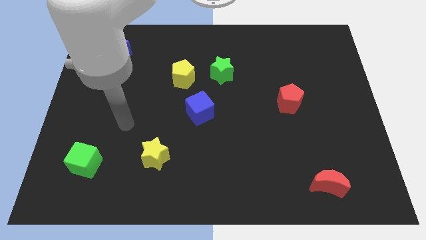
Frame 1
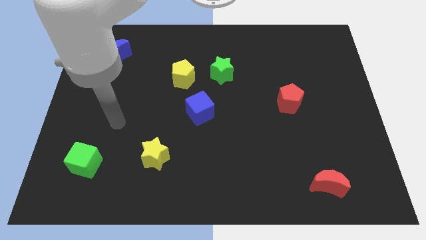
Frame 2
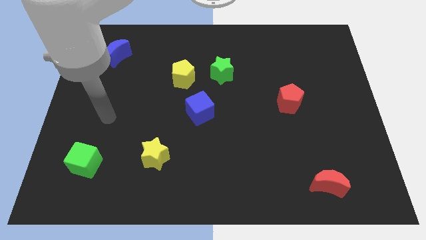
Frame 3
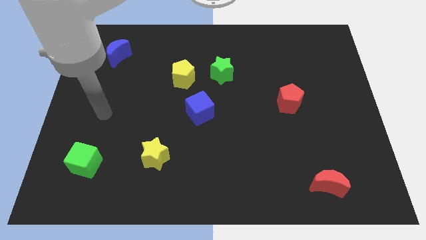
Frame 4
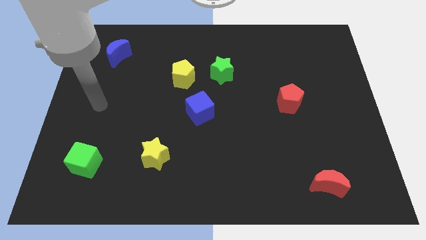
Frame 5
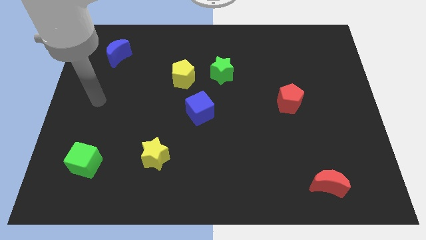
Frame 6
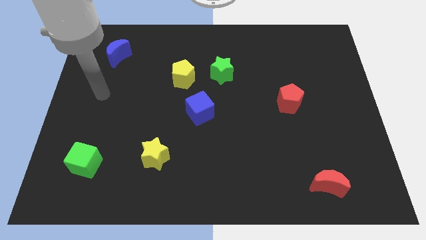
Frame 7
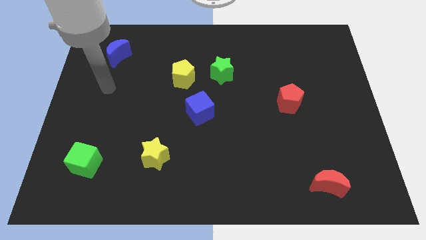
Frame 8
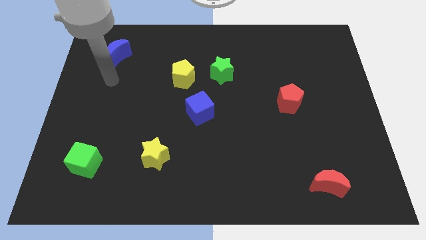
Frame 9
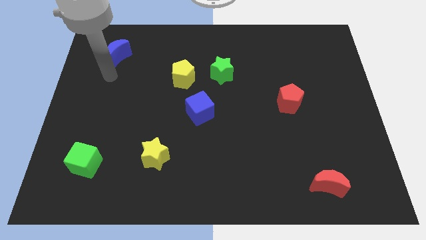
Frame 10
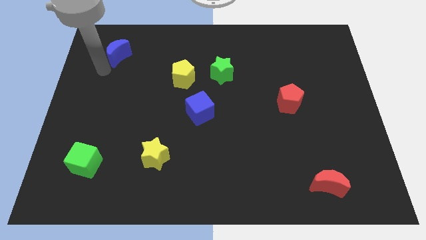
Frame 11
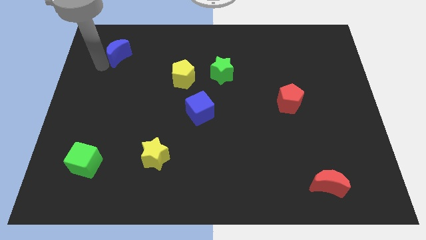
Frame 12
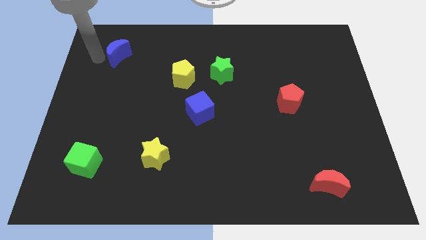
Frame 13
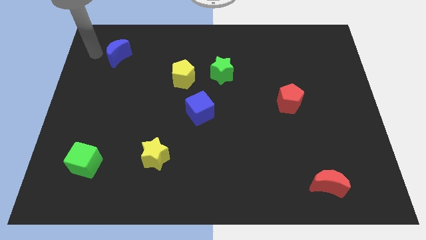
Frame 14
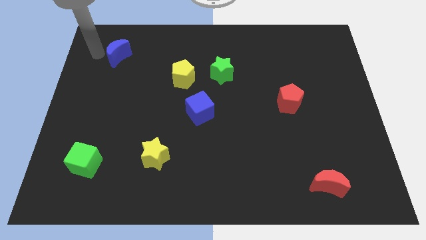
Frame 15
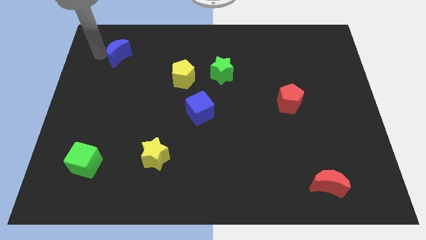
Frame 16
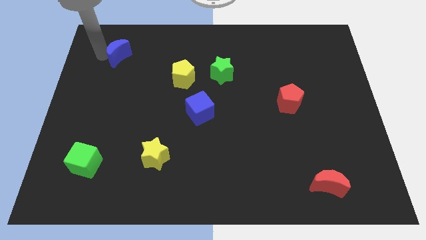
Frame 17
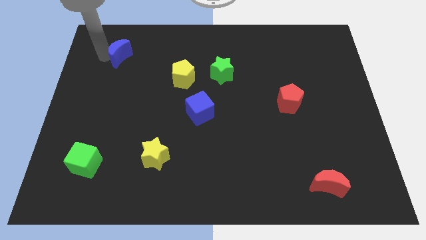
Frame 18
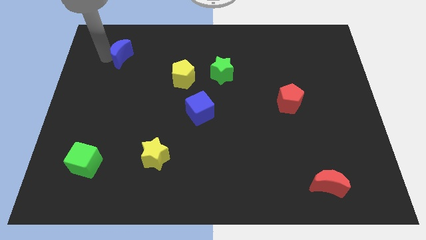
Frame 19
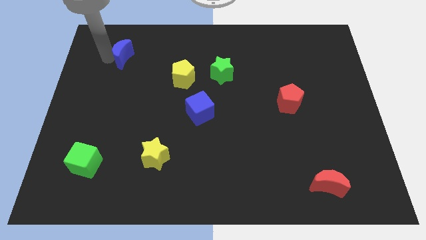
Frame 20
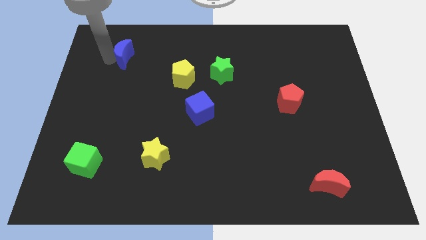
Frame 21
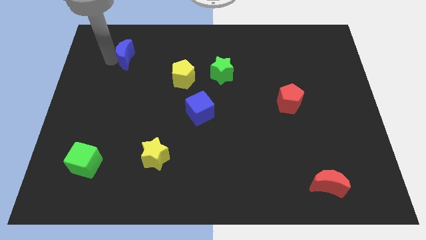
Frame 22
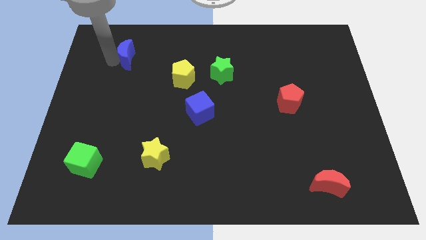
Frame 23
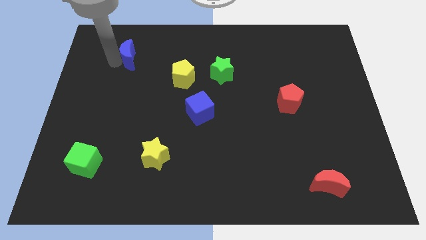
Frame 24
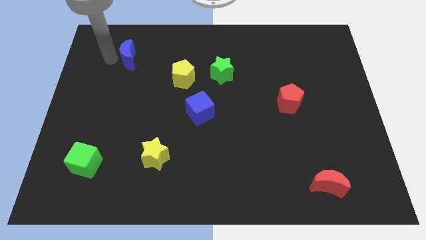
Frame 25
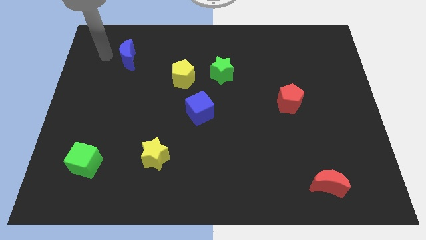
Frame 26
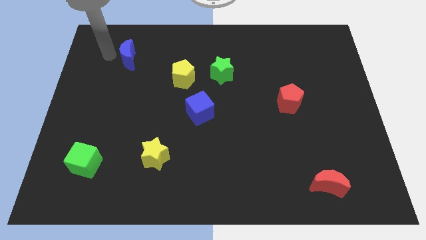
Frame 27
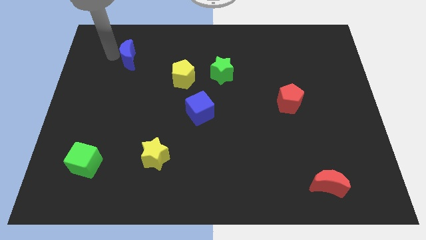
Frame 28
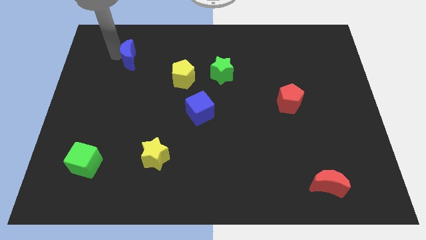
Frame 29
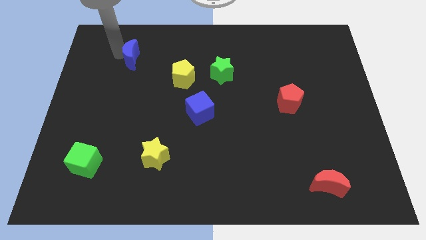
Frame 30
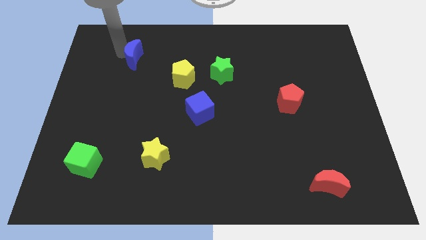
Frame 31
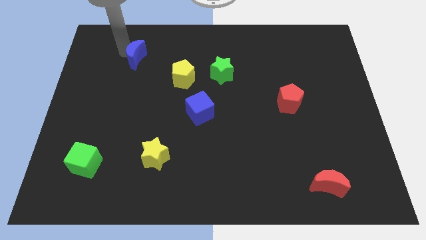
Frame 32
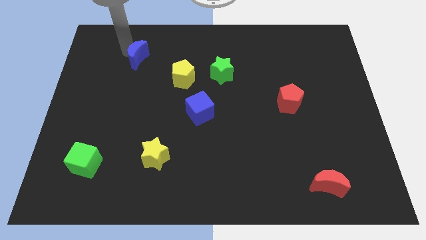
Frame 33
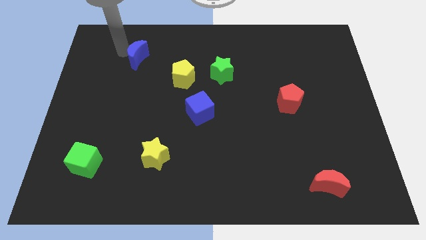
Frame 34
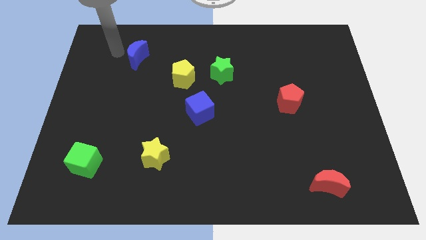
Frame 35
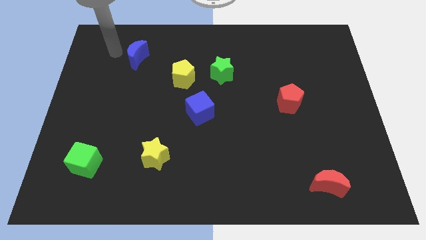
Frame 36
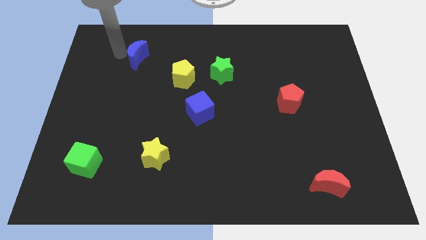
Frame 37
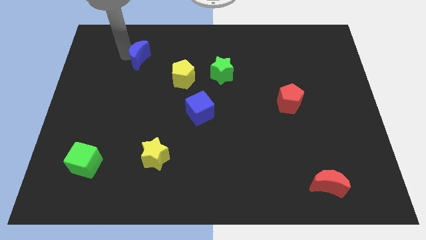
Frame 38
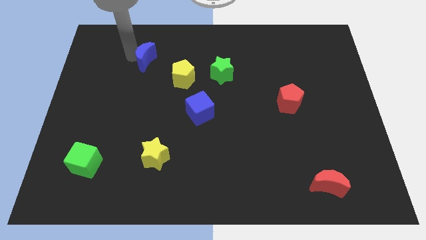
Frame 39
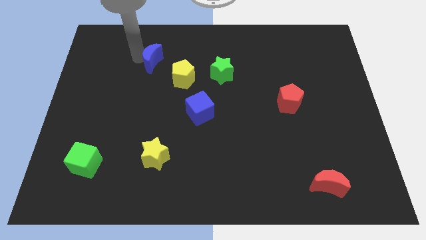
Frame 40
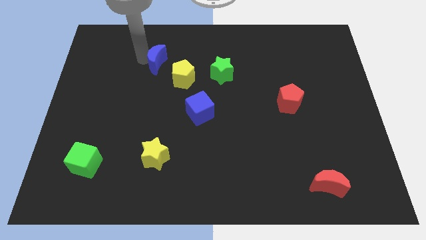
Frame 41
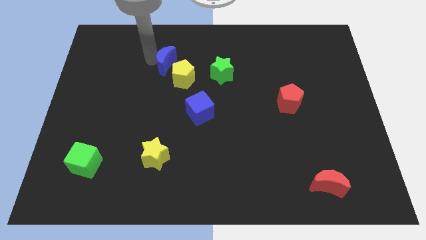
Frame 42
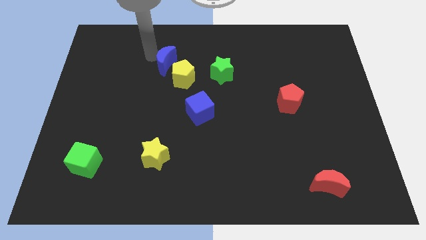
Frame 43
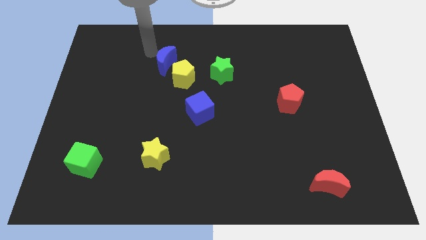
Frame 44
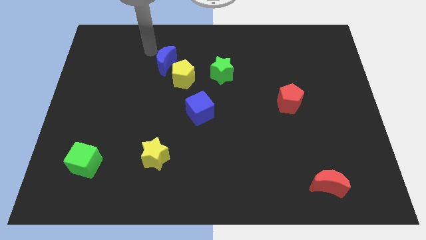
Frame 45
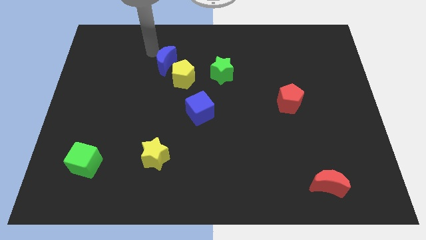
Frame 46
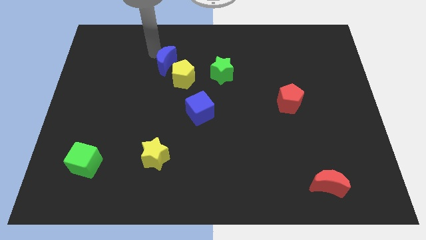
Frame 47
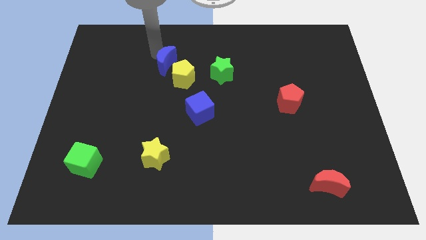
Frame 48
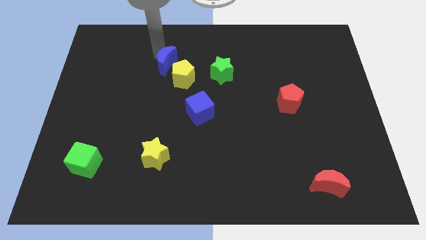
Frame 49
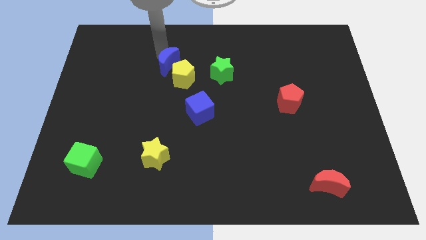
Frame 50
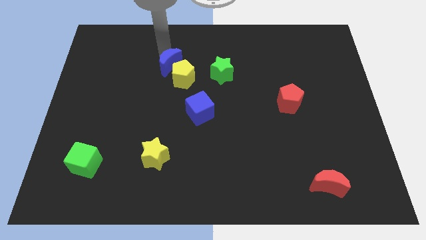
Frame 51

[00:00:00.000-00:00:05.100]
slide the blue moon towards the yellow pentagon

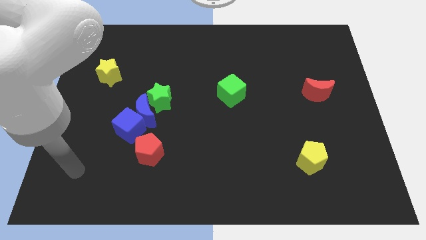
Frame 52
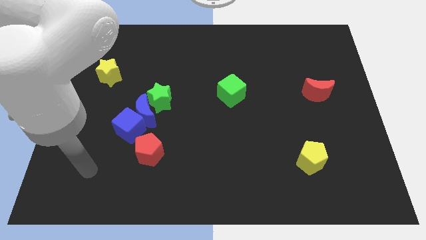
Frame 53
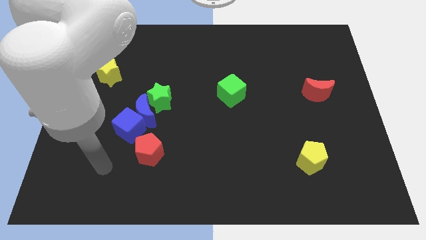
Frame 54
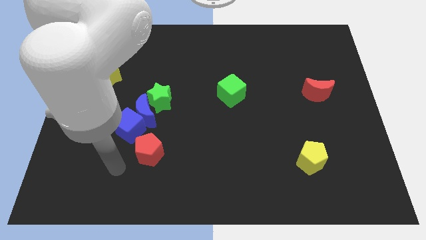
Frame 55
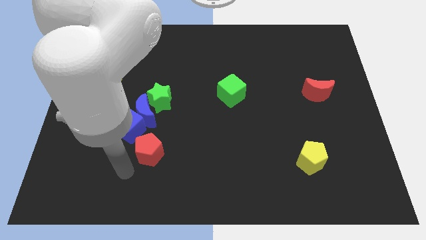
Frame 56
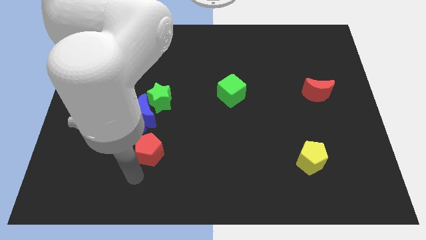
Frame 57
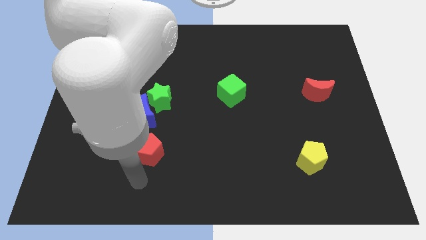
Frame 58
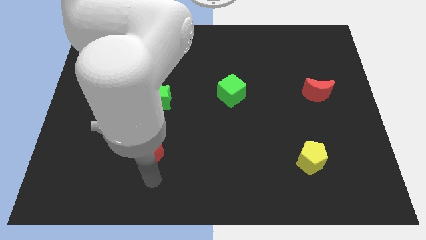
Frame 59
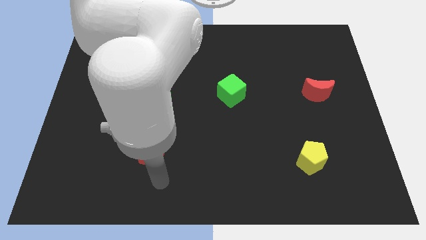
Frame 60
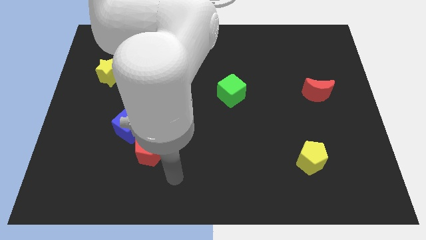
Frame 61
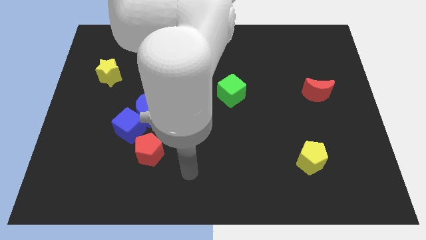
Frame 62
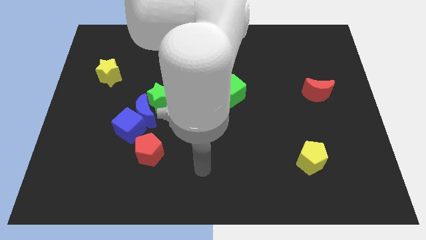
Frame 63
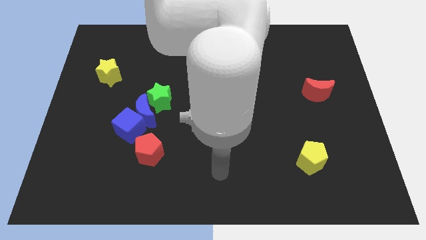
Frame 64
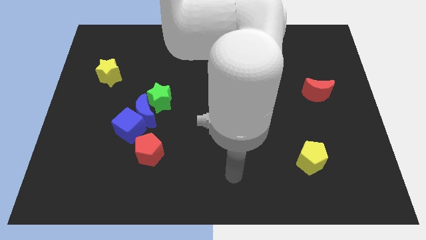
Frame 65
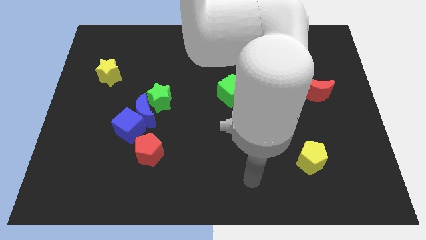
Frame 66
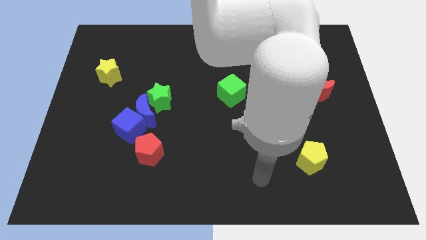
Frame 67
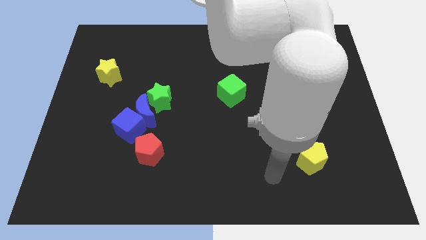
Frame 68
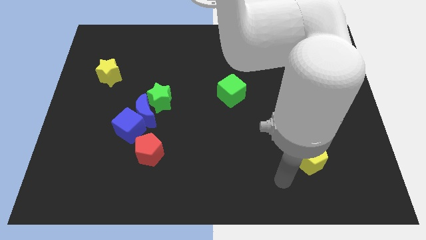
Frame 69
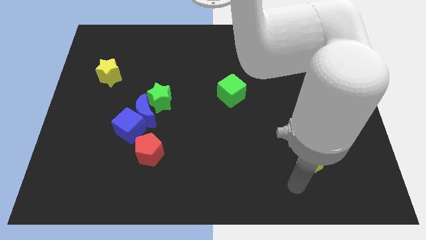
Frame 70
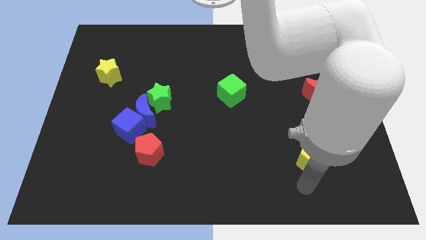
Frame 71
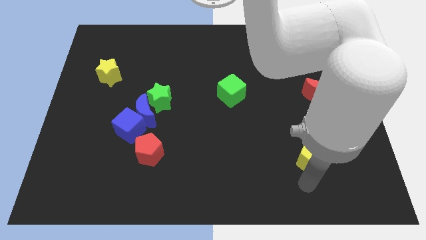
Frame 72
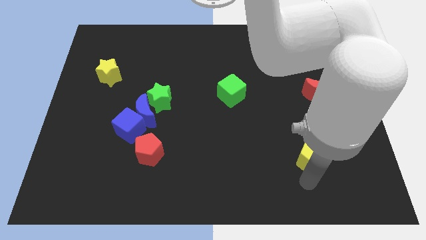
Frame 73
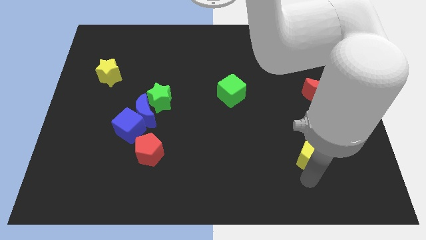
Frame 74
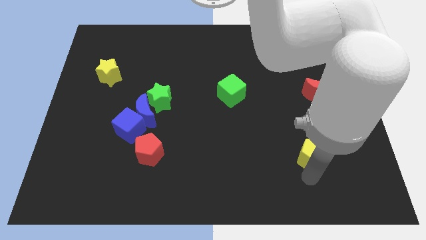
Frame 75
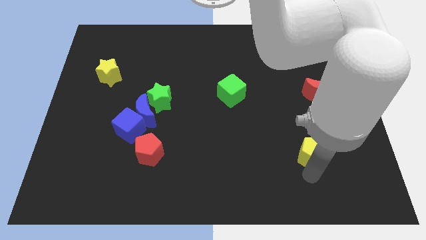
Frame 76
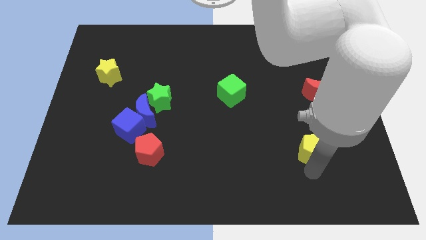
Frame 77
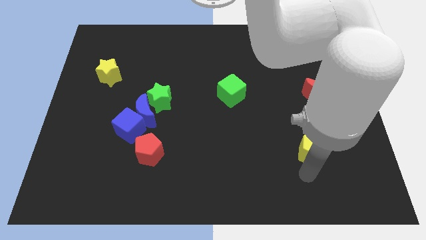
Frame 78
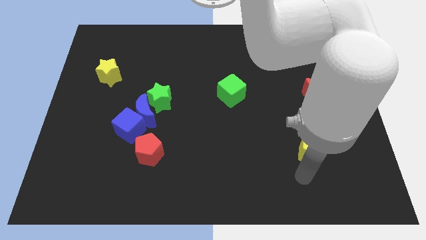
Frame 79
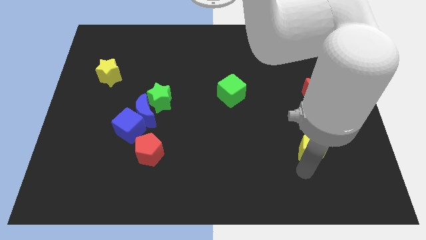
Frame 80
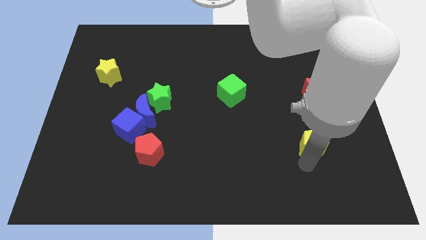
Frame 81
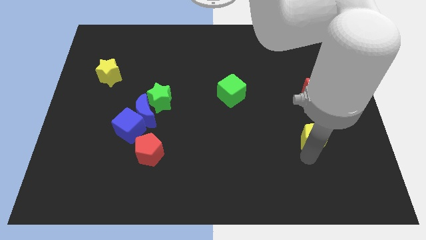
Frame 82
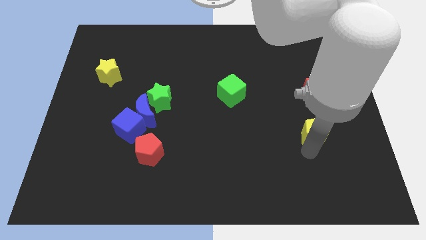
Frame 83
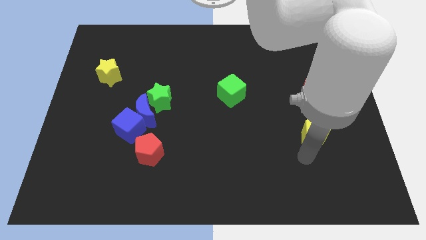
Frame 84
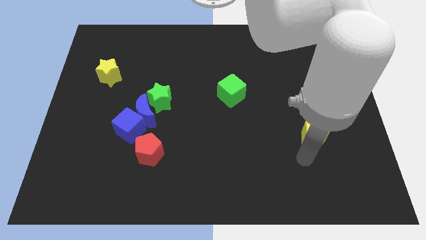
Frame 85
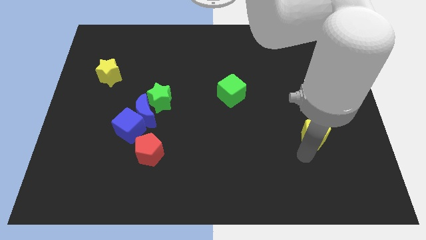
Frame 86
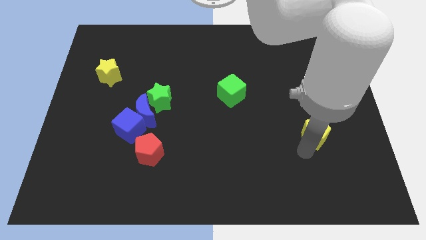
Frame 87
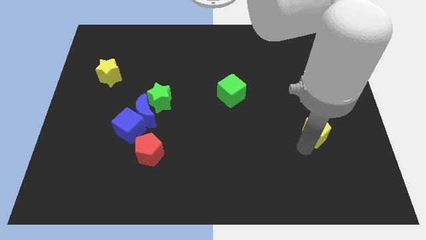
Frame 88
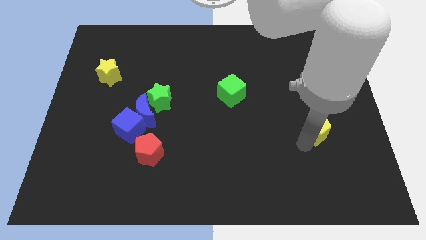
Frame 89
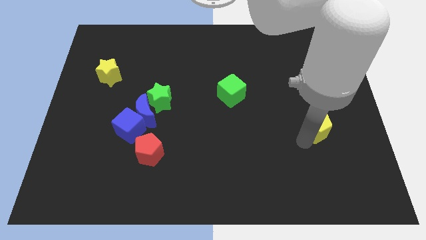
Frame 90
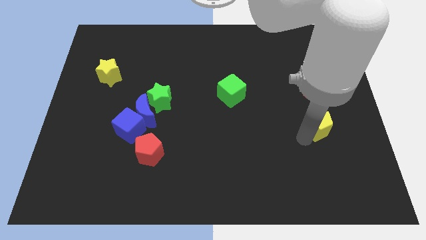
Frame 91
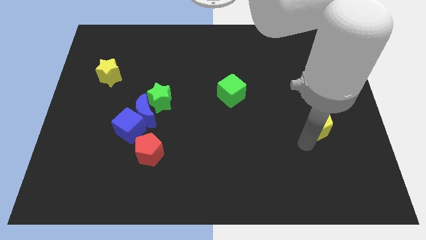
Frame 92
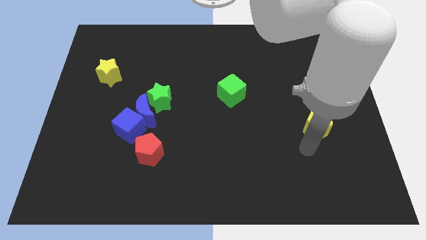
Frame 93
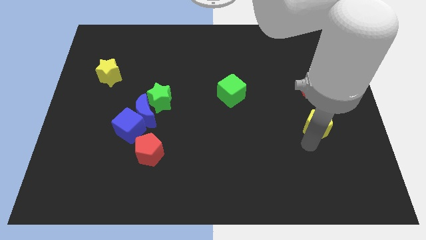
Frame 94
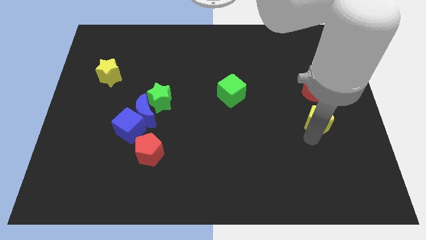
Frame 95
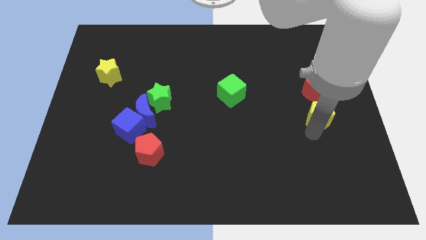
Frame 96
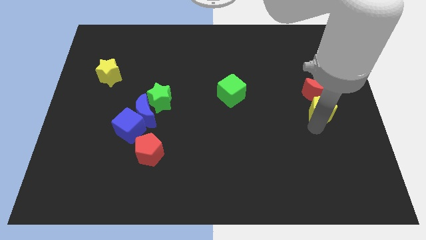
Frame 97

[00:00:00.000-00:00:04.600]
move the yellow pentagon next to the red moon
